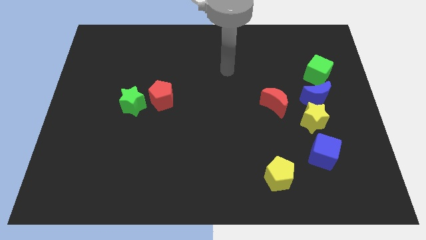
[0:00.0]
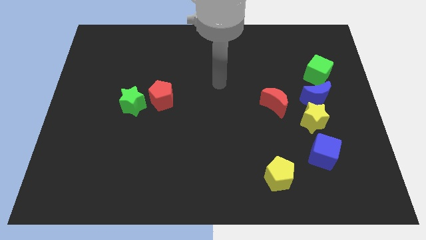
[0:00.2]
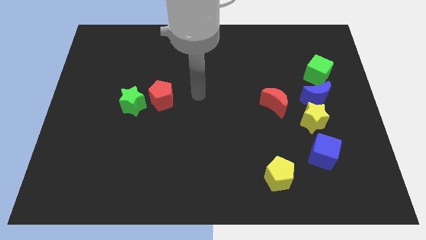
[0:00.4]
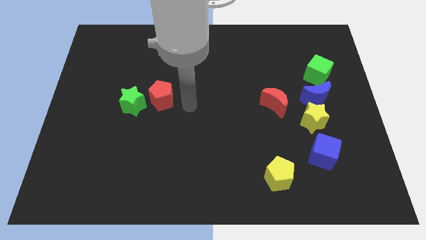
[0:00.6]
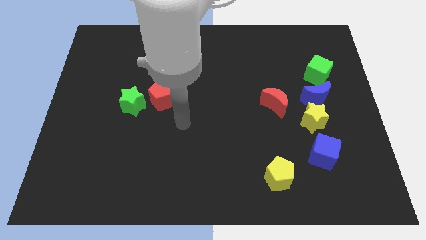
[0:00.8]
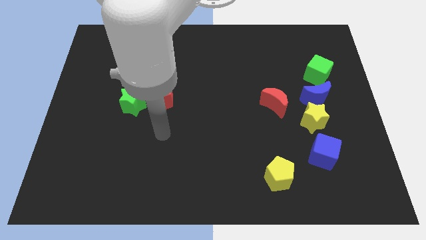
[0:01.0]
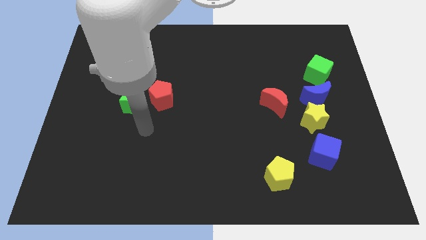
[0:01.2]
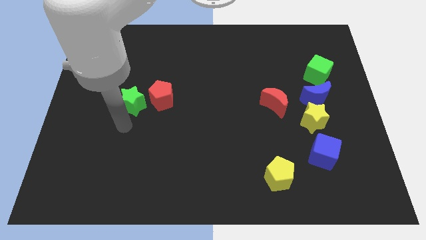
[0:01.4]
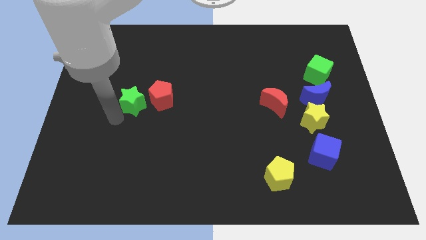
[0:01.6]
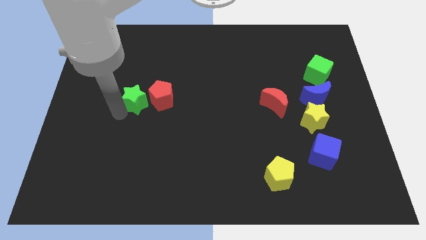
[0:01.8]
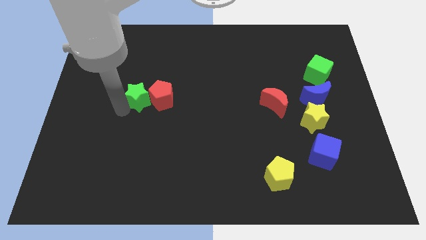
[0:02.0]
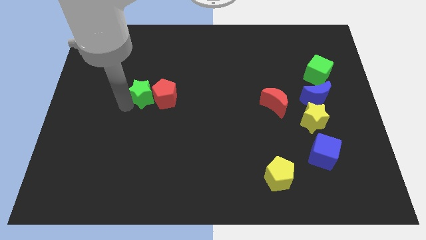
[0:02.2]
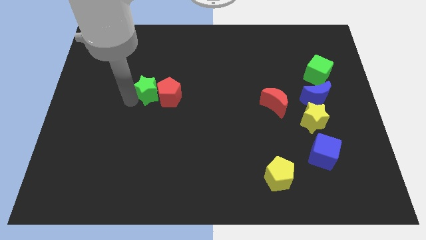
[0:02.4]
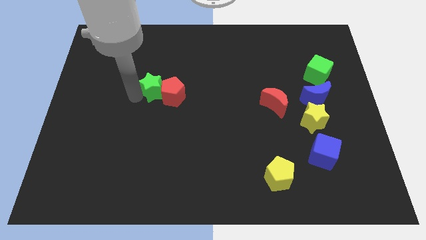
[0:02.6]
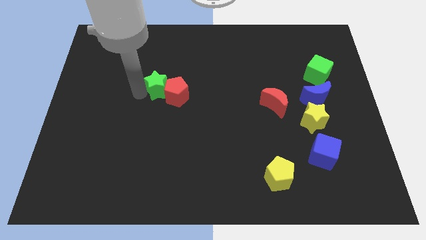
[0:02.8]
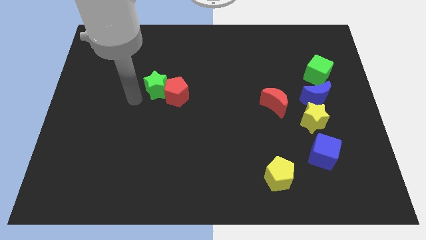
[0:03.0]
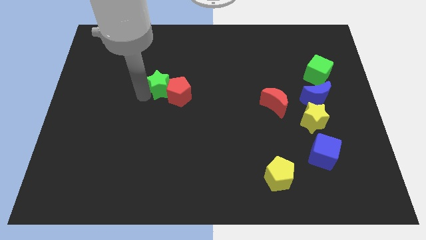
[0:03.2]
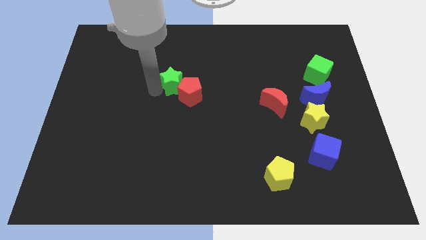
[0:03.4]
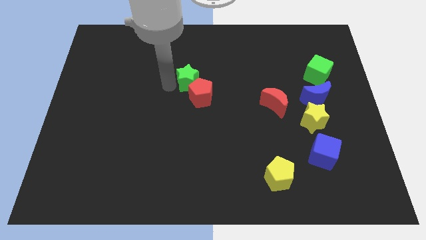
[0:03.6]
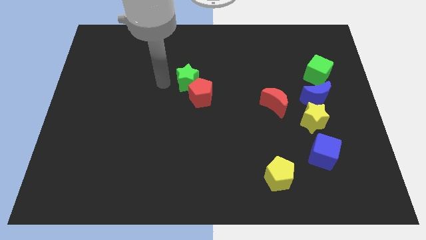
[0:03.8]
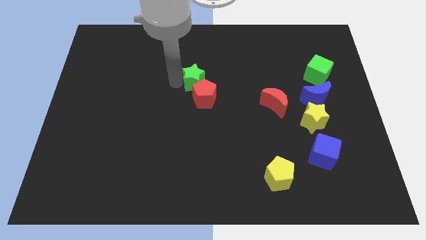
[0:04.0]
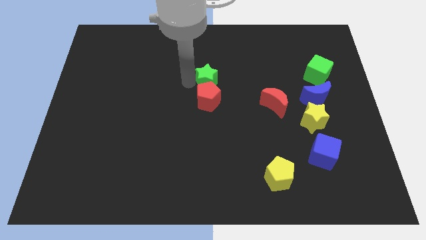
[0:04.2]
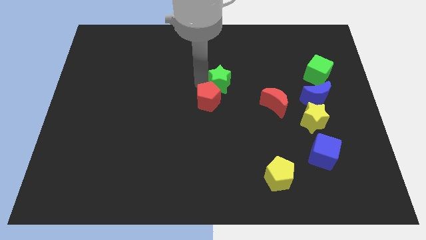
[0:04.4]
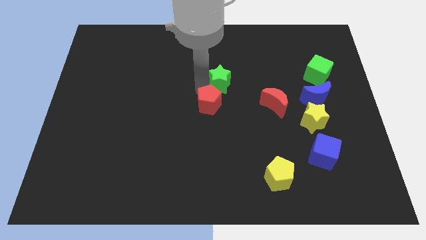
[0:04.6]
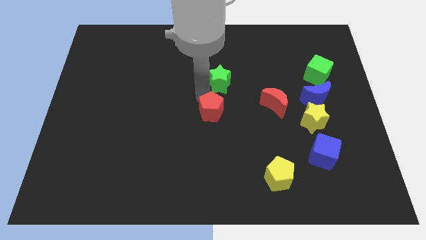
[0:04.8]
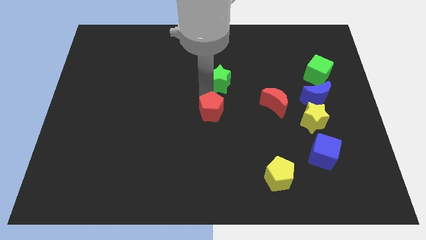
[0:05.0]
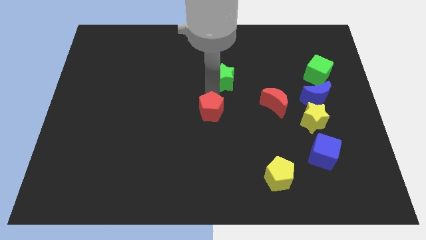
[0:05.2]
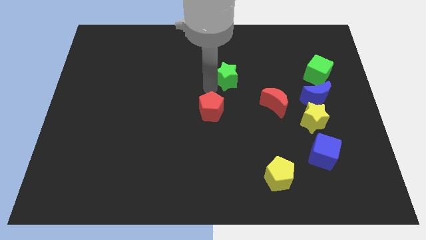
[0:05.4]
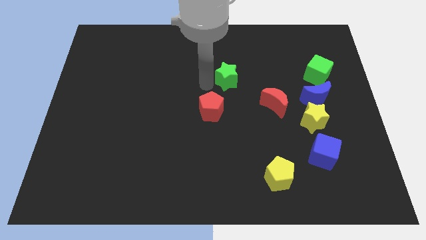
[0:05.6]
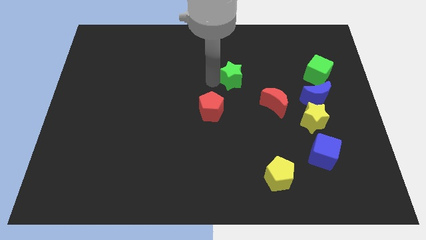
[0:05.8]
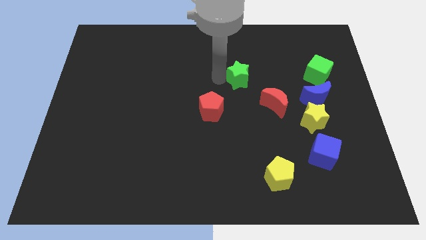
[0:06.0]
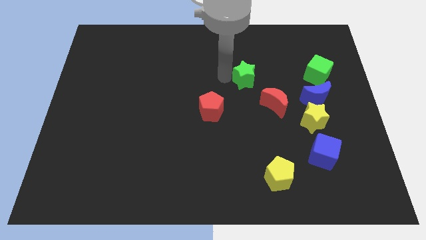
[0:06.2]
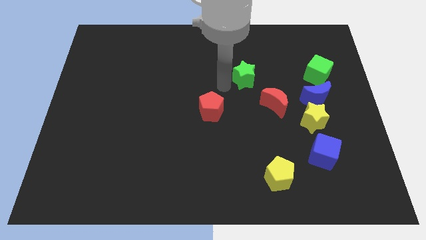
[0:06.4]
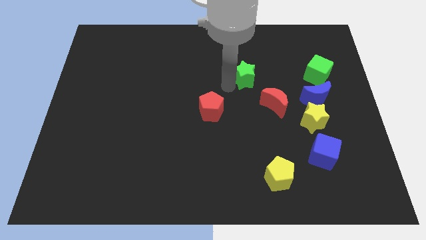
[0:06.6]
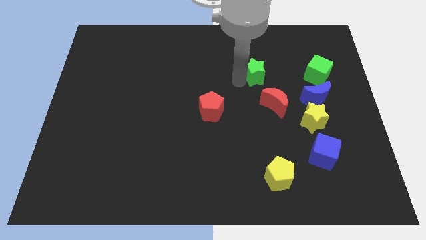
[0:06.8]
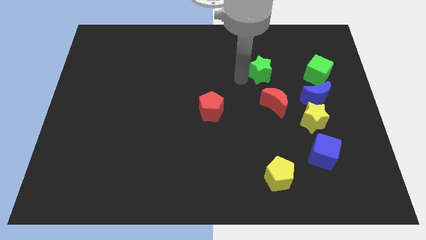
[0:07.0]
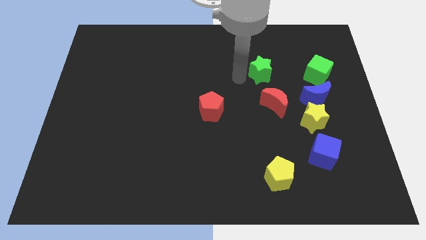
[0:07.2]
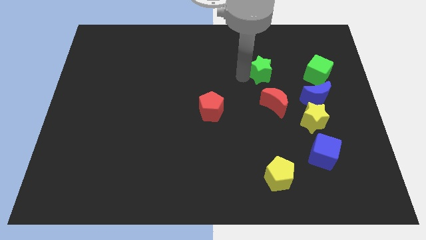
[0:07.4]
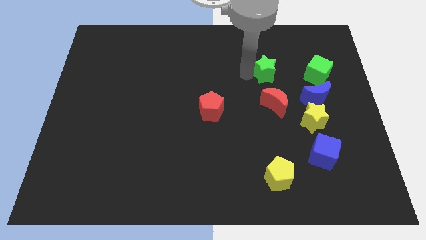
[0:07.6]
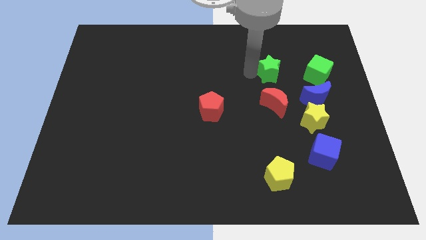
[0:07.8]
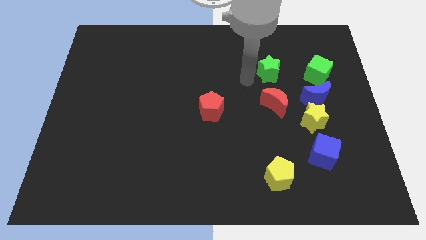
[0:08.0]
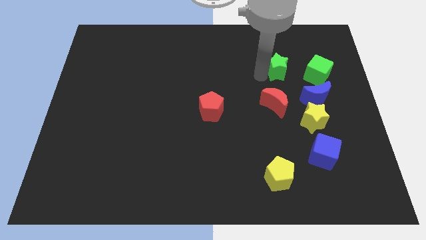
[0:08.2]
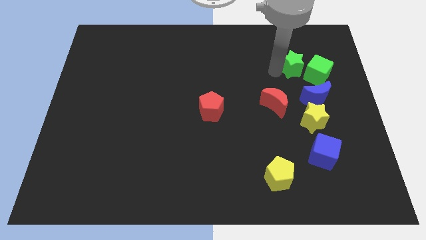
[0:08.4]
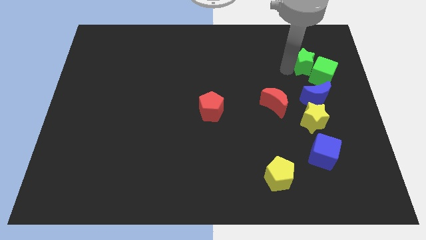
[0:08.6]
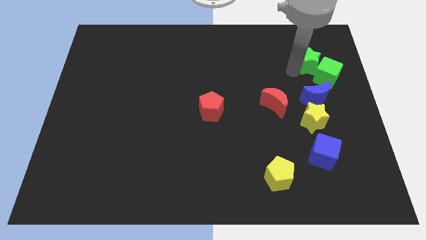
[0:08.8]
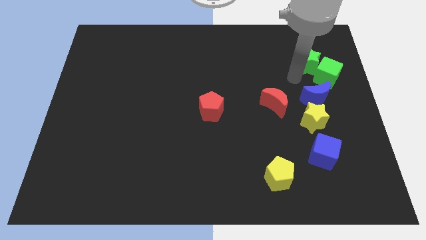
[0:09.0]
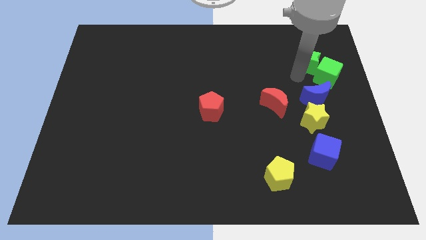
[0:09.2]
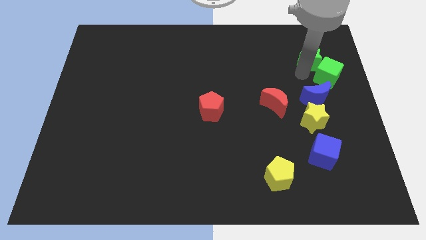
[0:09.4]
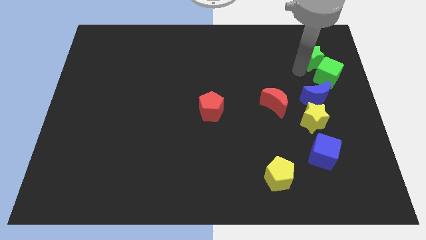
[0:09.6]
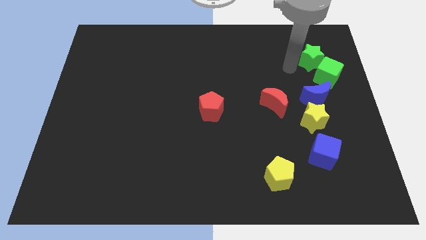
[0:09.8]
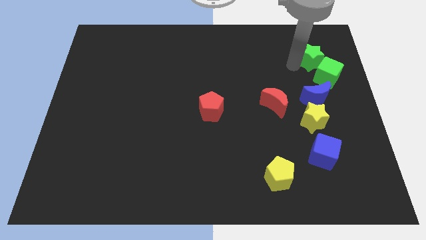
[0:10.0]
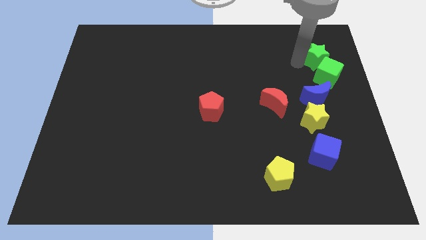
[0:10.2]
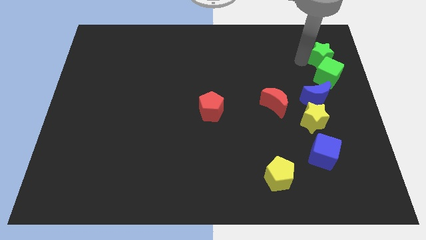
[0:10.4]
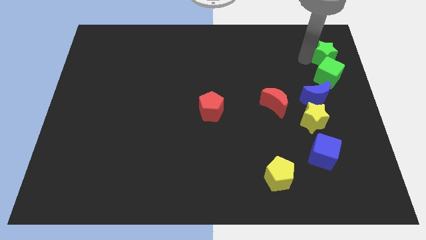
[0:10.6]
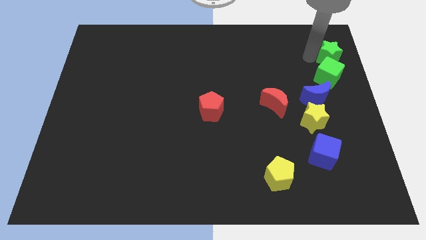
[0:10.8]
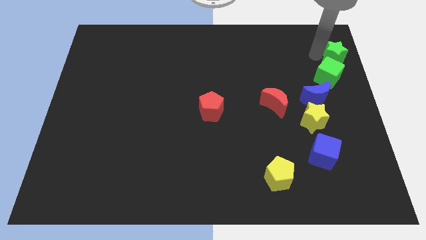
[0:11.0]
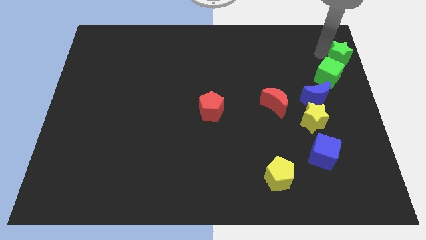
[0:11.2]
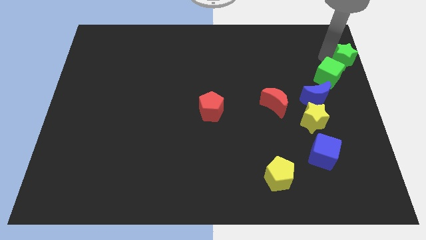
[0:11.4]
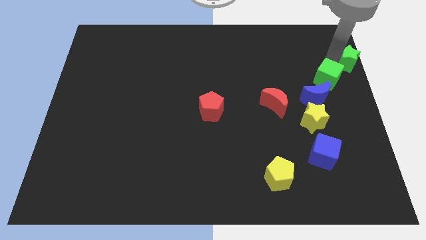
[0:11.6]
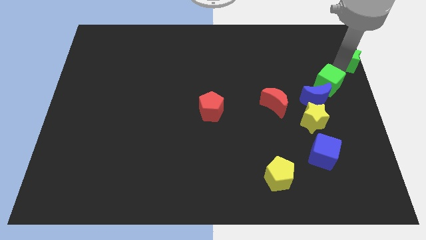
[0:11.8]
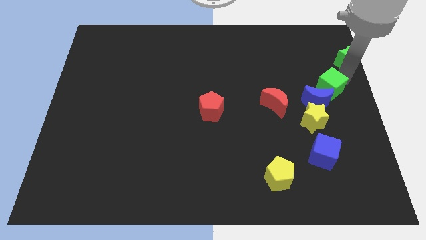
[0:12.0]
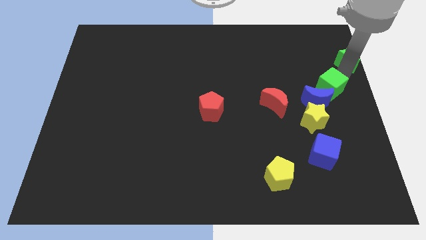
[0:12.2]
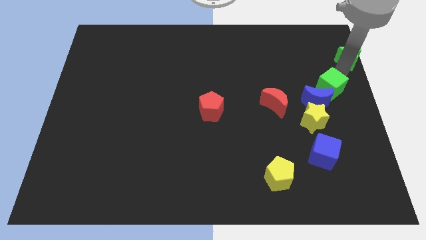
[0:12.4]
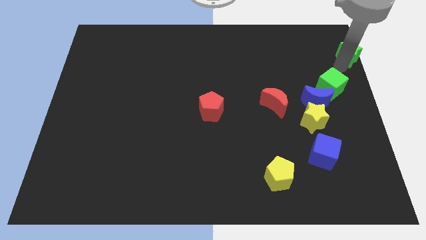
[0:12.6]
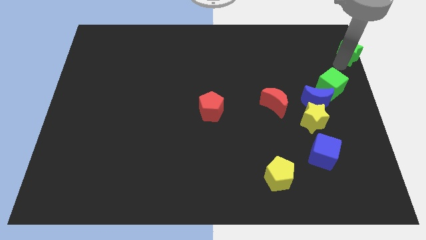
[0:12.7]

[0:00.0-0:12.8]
move the green star to the top right corner

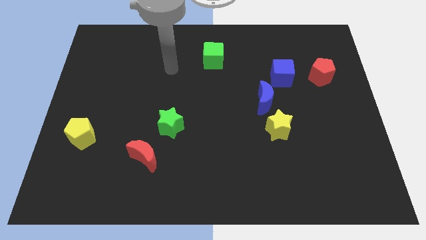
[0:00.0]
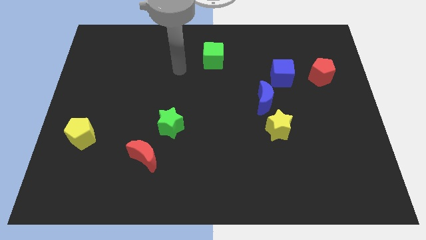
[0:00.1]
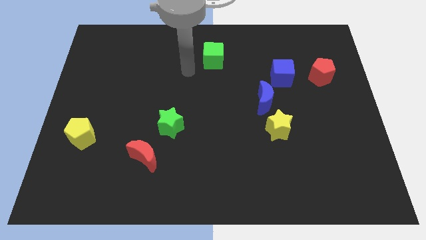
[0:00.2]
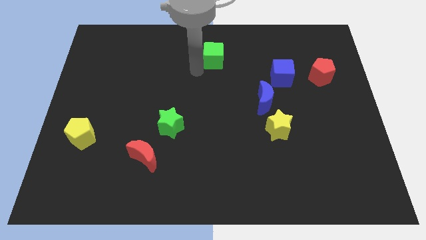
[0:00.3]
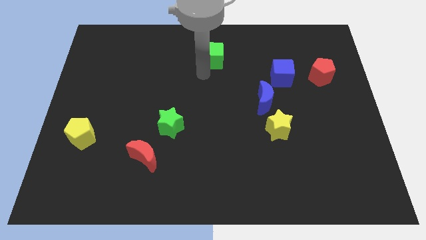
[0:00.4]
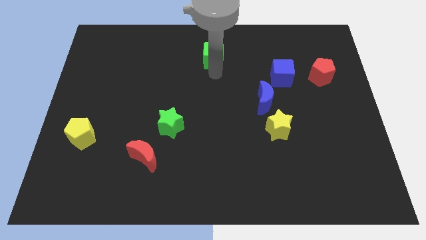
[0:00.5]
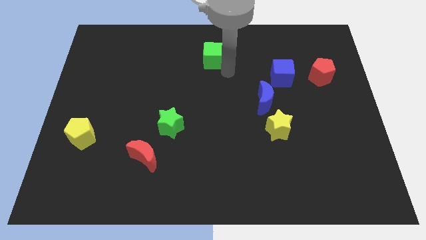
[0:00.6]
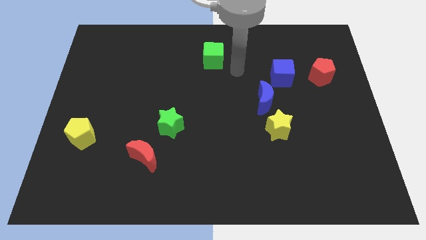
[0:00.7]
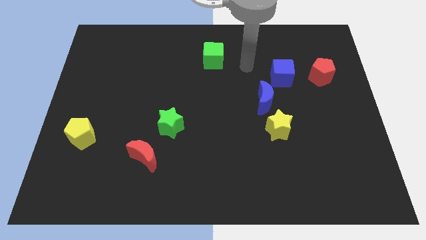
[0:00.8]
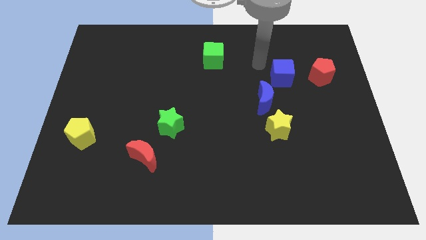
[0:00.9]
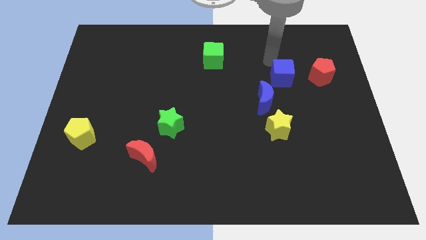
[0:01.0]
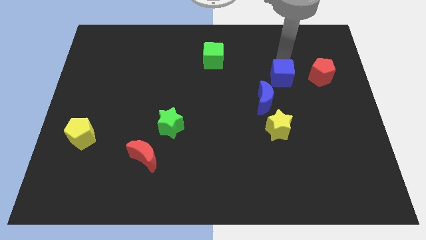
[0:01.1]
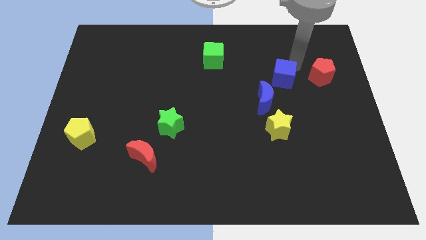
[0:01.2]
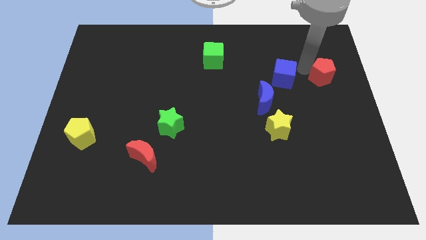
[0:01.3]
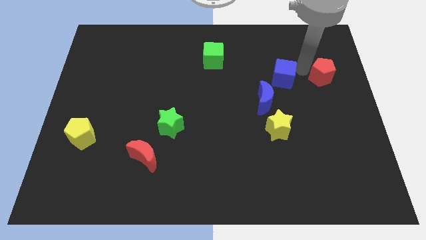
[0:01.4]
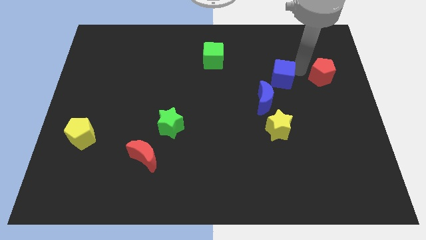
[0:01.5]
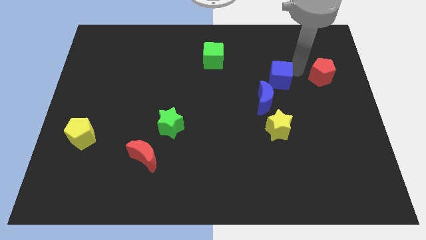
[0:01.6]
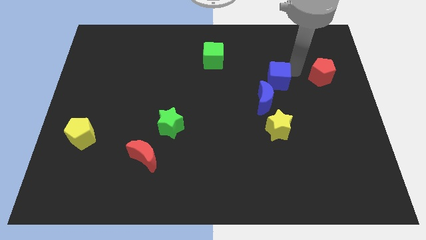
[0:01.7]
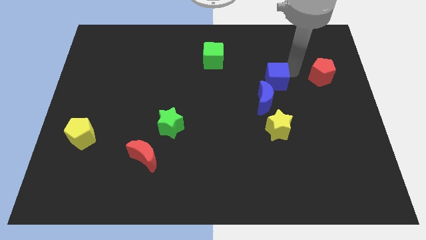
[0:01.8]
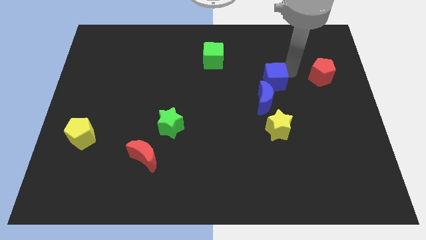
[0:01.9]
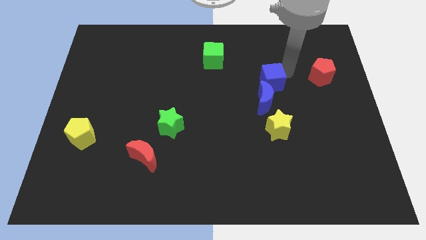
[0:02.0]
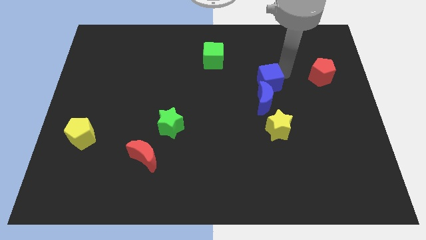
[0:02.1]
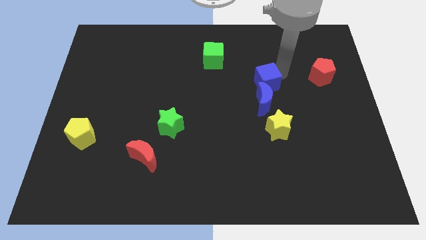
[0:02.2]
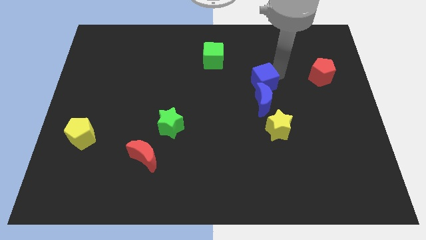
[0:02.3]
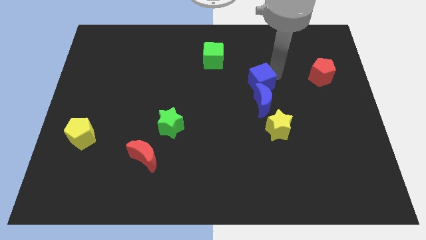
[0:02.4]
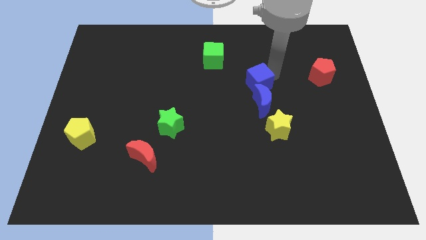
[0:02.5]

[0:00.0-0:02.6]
move the blue cube to the middle
